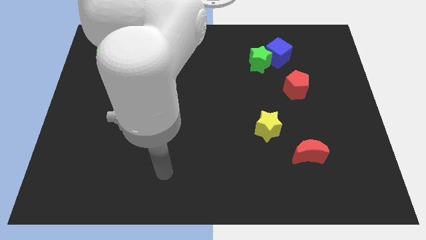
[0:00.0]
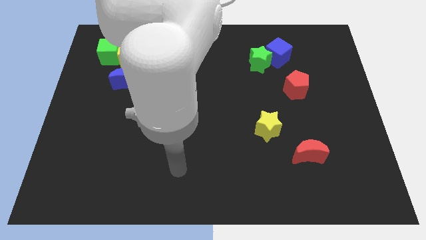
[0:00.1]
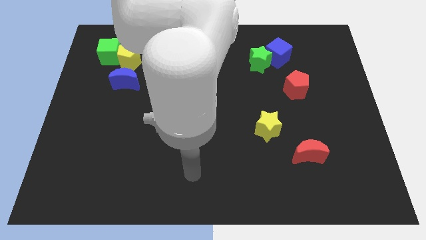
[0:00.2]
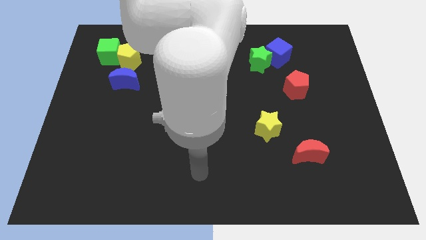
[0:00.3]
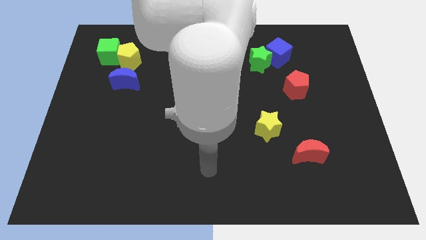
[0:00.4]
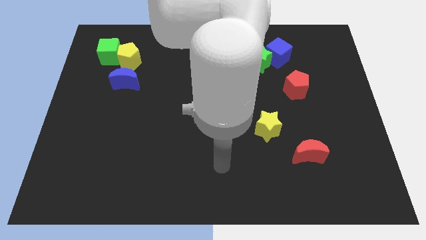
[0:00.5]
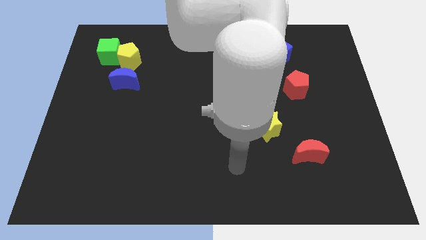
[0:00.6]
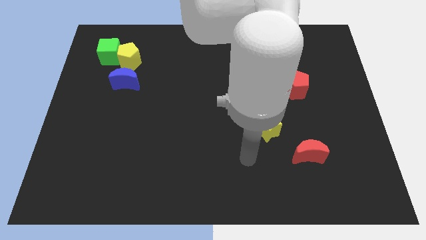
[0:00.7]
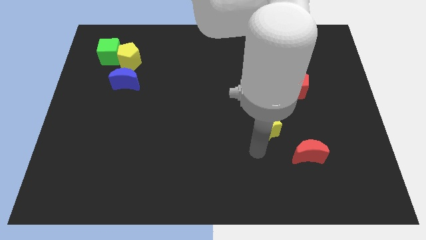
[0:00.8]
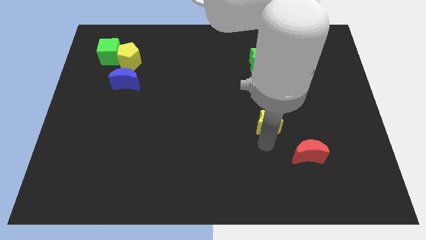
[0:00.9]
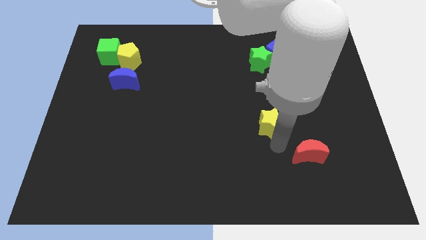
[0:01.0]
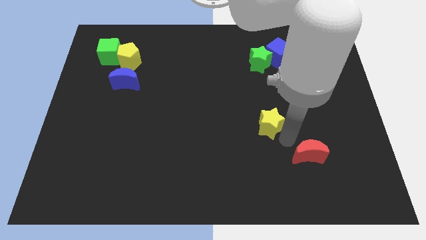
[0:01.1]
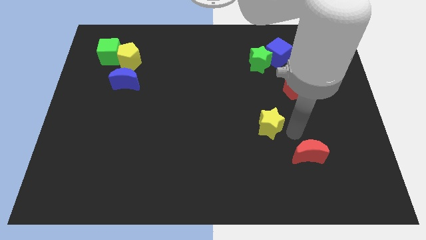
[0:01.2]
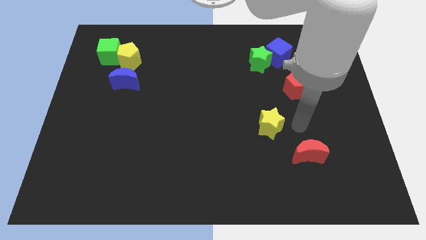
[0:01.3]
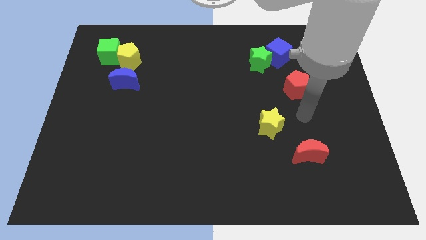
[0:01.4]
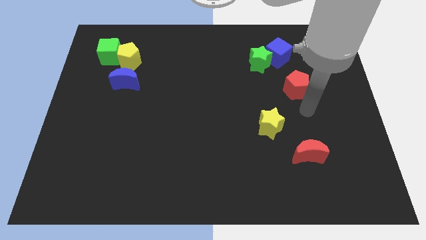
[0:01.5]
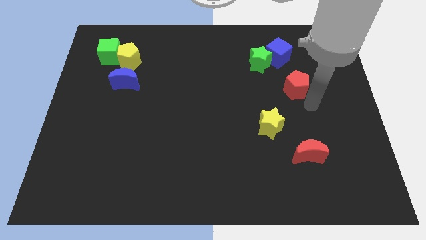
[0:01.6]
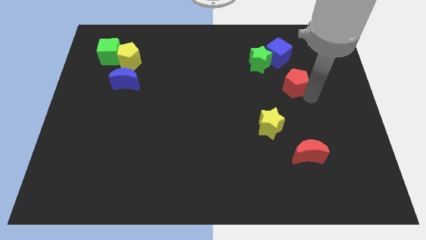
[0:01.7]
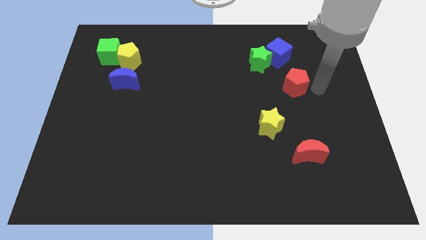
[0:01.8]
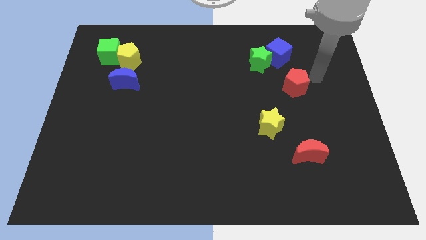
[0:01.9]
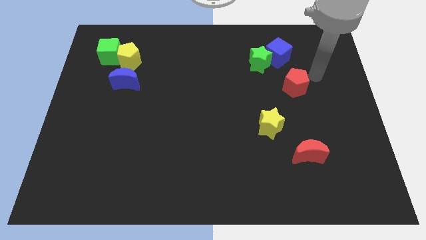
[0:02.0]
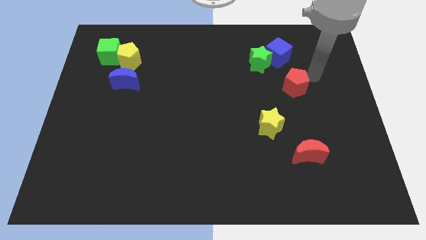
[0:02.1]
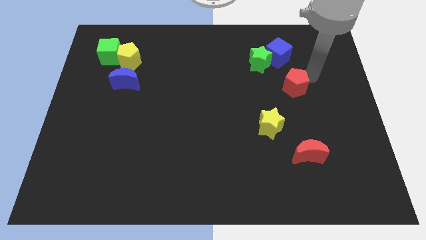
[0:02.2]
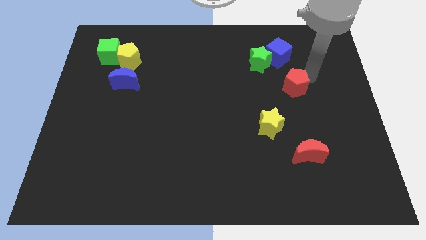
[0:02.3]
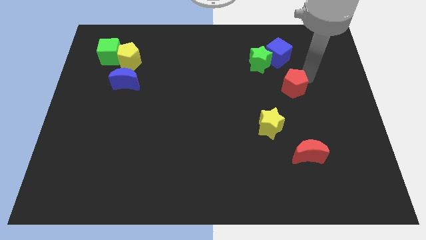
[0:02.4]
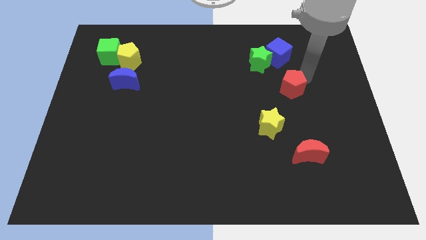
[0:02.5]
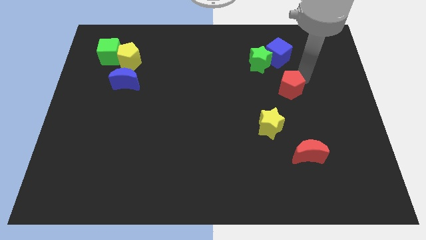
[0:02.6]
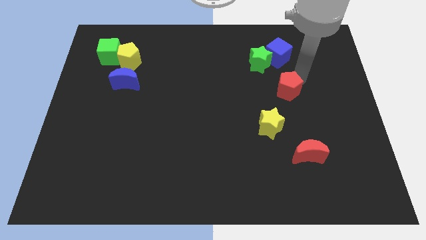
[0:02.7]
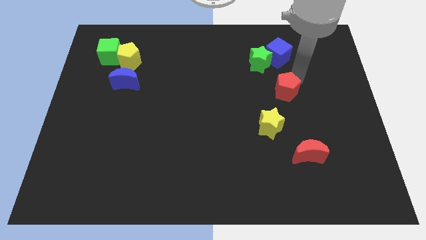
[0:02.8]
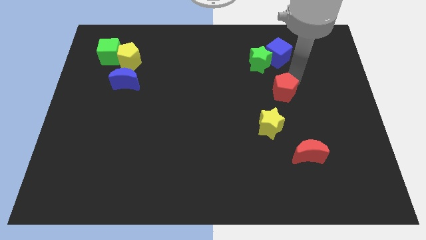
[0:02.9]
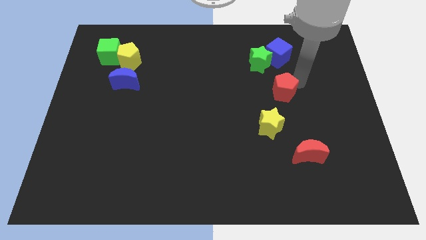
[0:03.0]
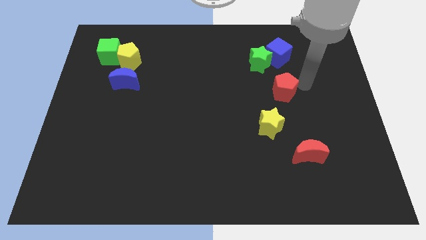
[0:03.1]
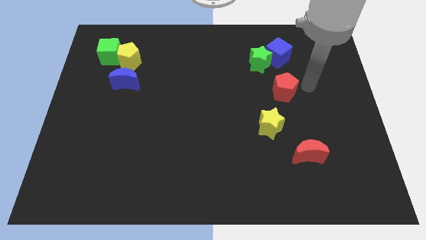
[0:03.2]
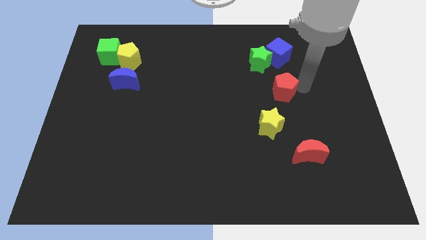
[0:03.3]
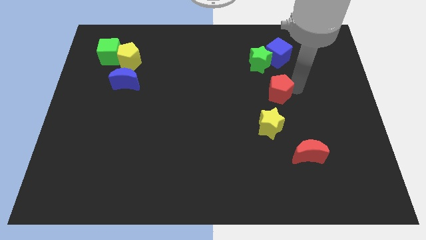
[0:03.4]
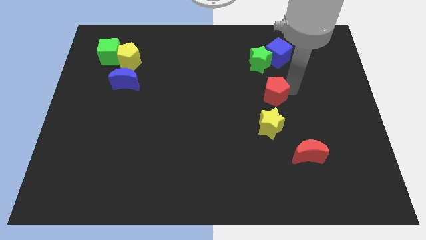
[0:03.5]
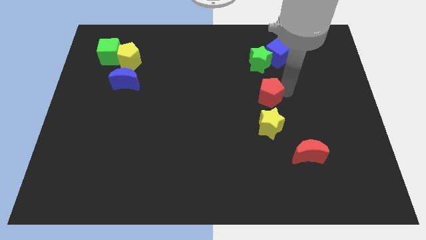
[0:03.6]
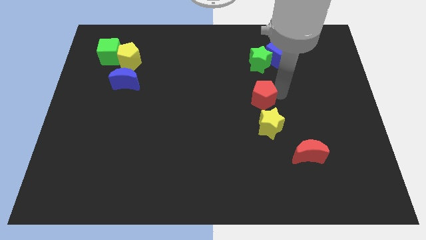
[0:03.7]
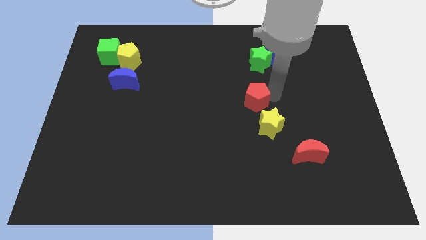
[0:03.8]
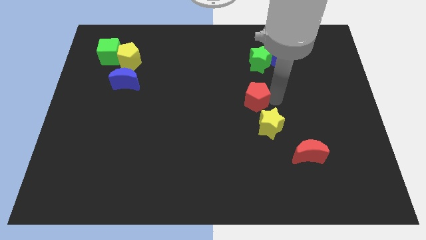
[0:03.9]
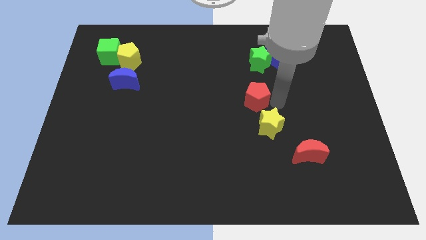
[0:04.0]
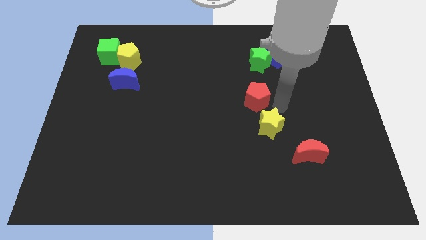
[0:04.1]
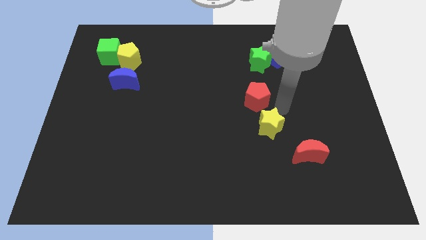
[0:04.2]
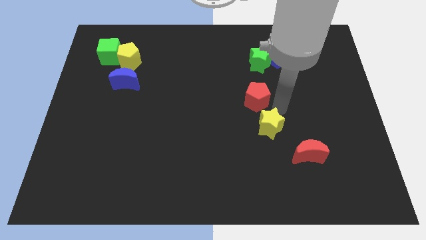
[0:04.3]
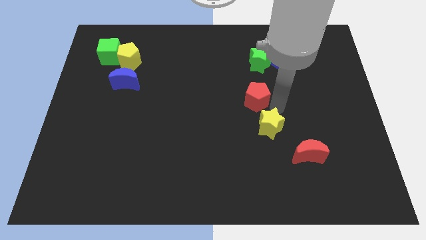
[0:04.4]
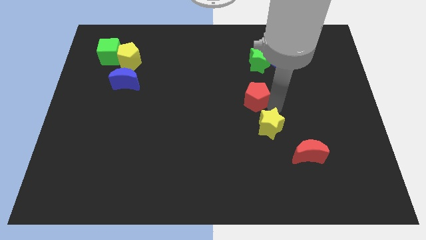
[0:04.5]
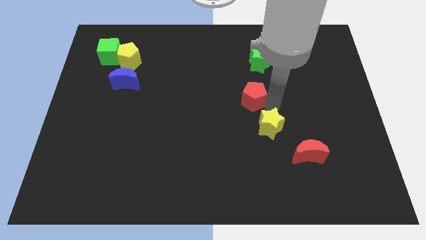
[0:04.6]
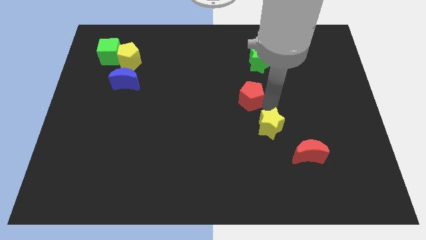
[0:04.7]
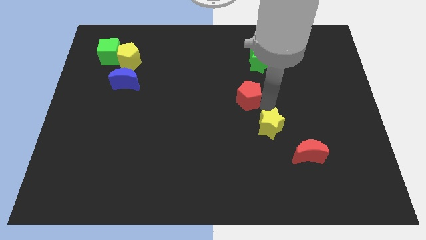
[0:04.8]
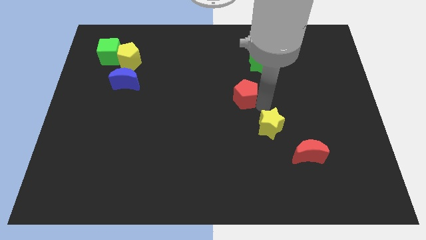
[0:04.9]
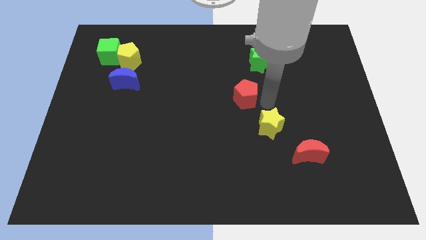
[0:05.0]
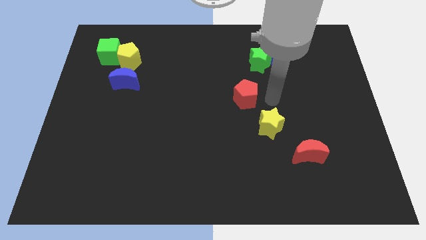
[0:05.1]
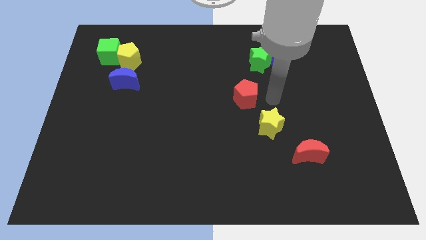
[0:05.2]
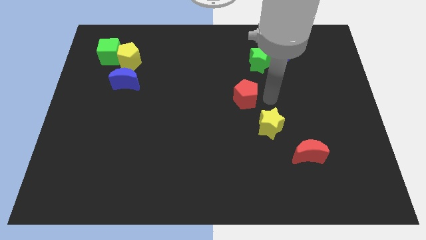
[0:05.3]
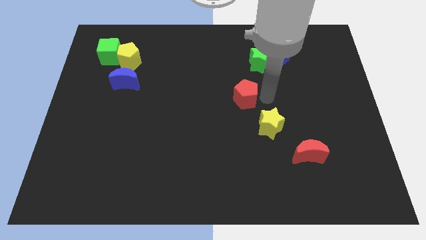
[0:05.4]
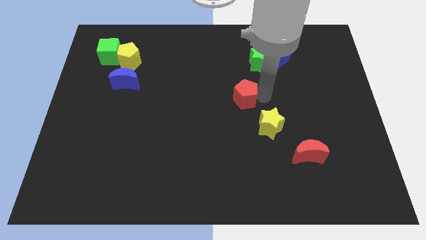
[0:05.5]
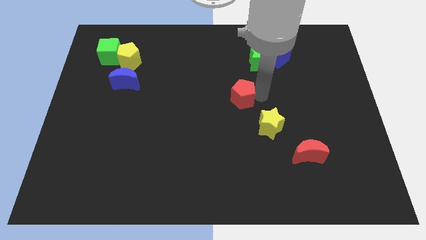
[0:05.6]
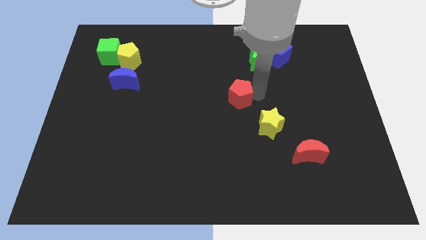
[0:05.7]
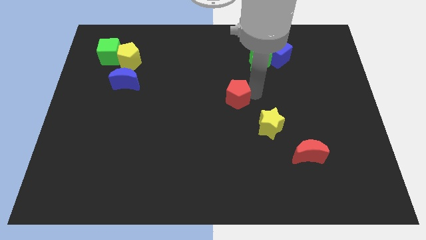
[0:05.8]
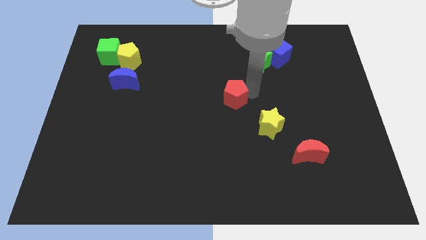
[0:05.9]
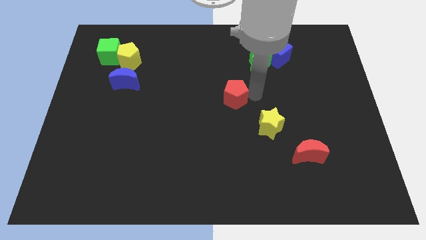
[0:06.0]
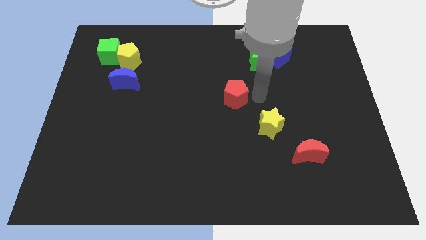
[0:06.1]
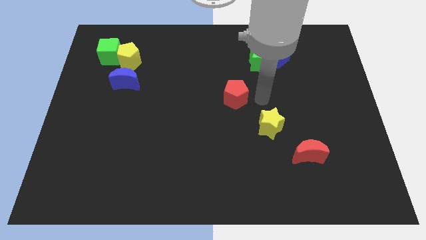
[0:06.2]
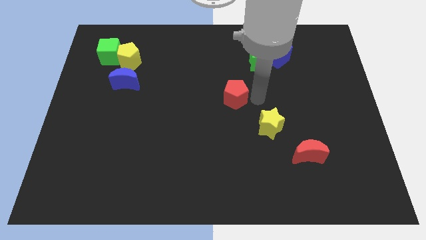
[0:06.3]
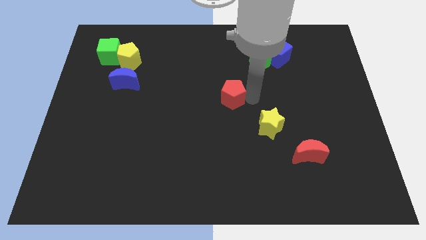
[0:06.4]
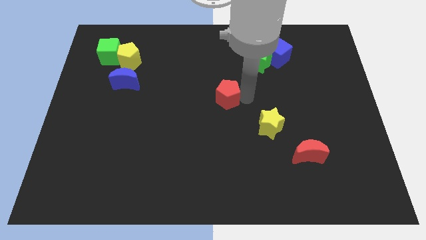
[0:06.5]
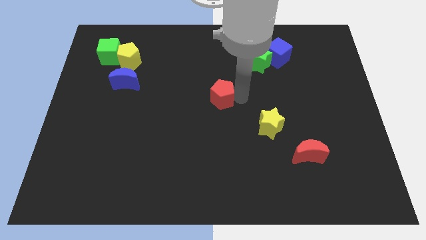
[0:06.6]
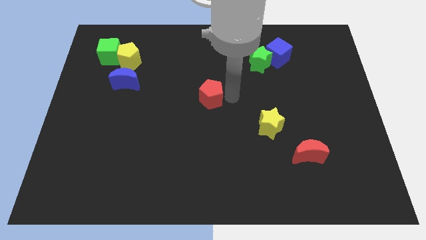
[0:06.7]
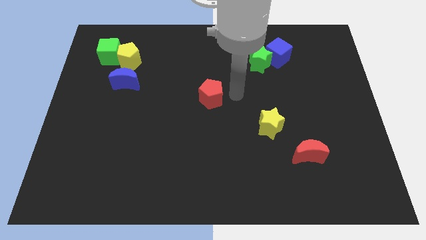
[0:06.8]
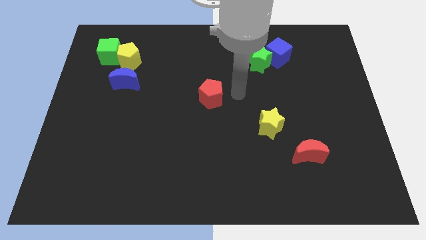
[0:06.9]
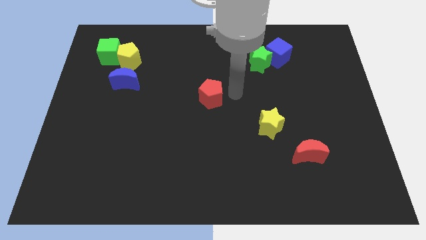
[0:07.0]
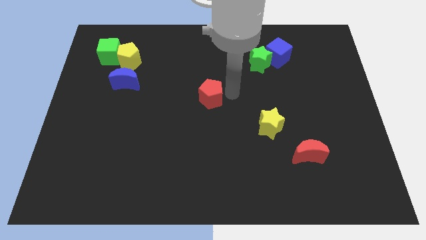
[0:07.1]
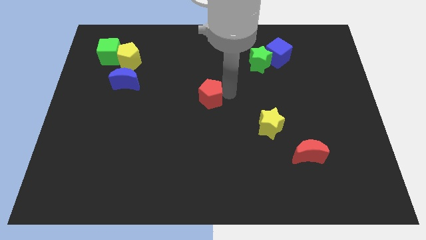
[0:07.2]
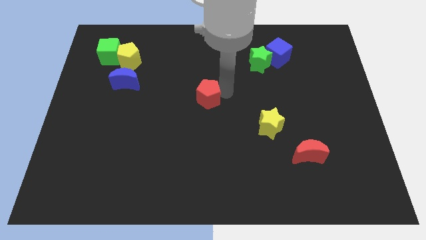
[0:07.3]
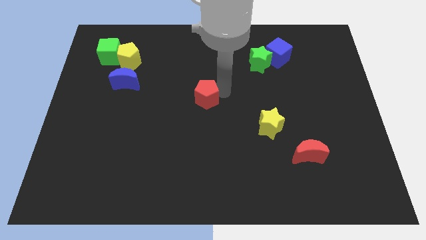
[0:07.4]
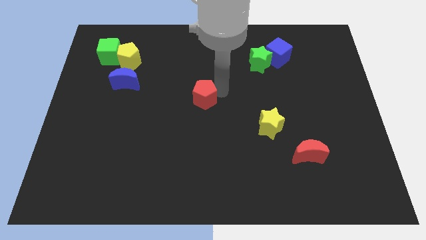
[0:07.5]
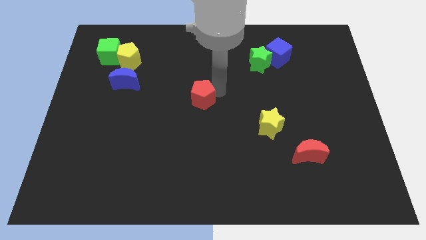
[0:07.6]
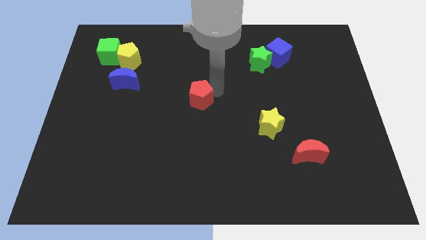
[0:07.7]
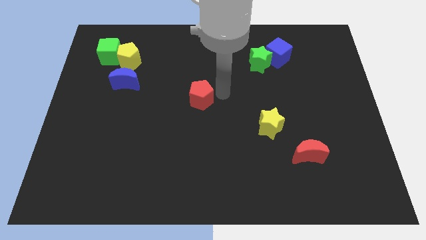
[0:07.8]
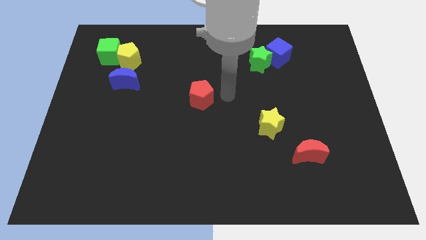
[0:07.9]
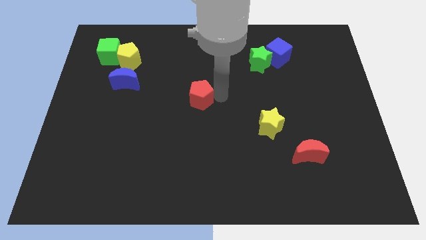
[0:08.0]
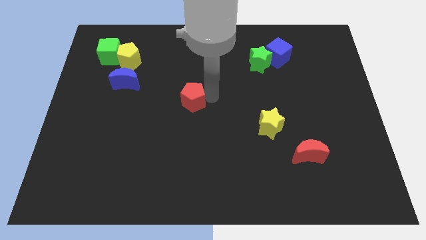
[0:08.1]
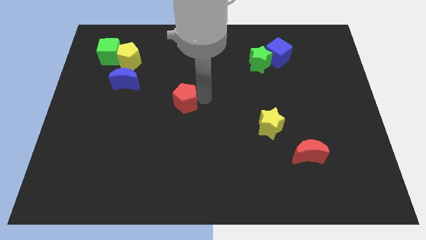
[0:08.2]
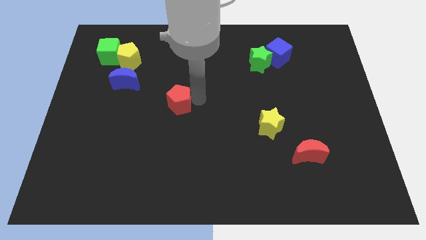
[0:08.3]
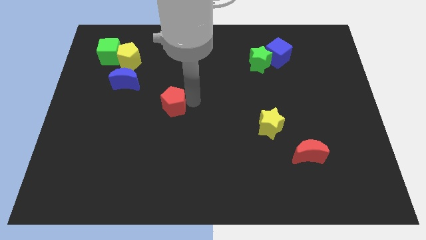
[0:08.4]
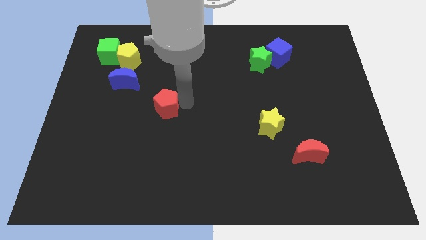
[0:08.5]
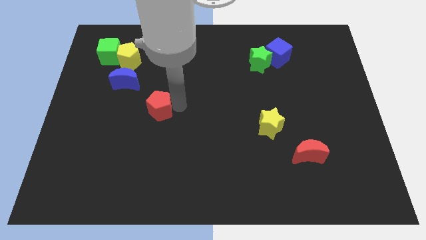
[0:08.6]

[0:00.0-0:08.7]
slide the red pentagon to the bottom right of the blue moon
